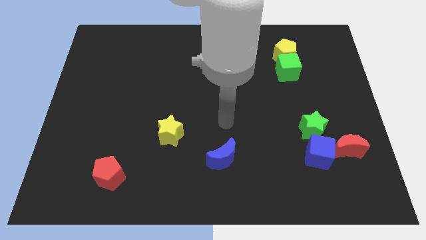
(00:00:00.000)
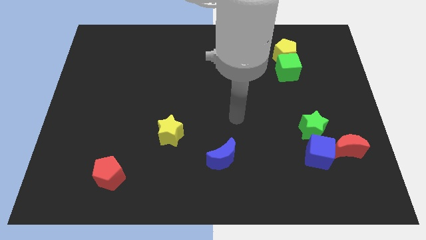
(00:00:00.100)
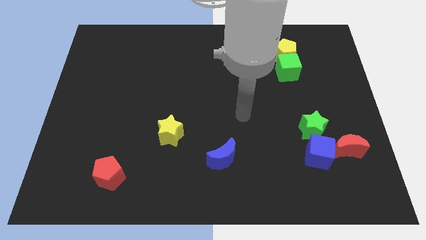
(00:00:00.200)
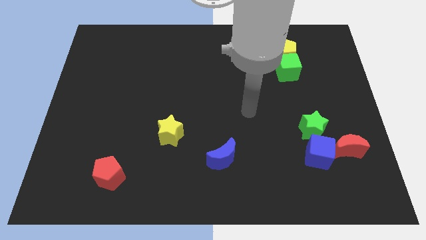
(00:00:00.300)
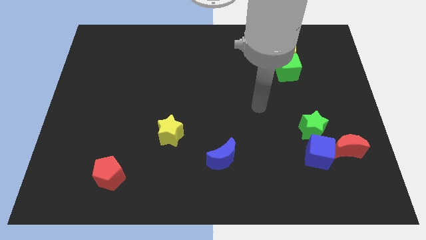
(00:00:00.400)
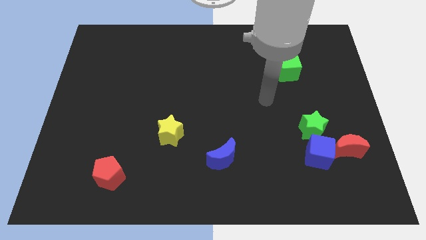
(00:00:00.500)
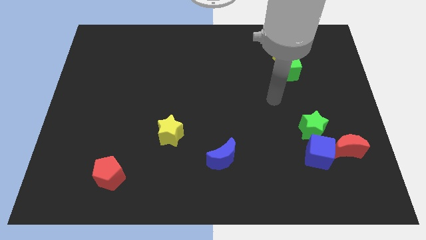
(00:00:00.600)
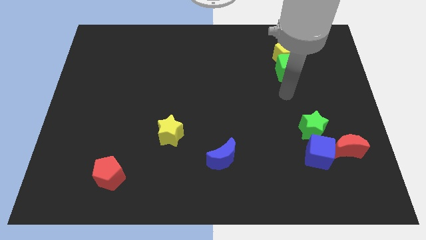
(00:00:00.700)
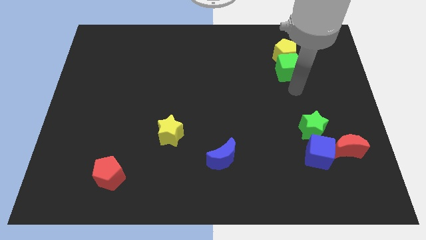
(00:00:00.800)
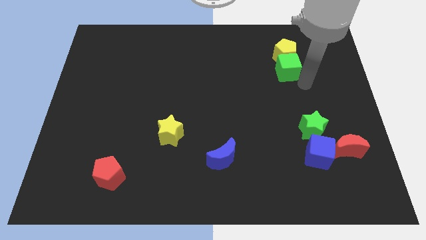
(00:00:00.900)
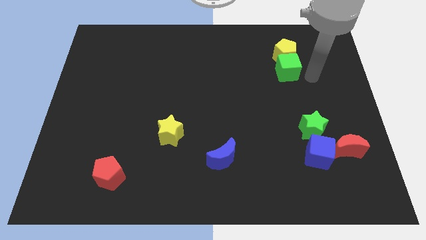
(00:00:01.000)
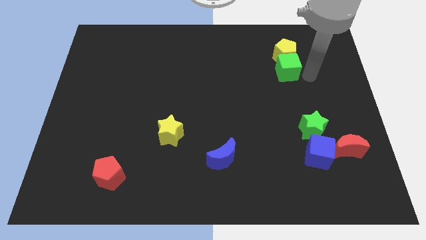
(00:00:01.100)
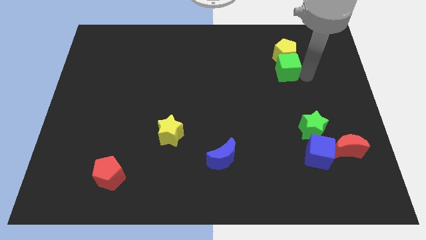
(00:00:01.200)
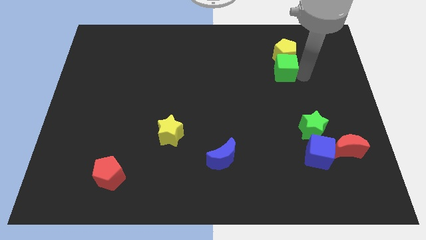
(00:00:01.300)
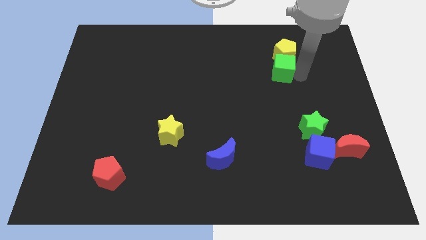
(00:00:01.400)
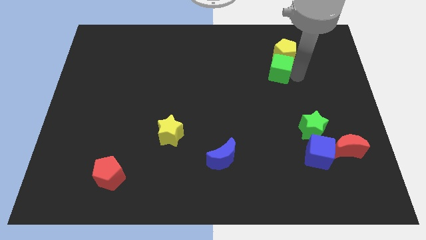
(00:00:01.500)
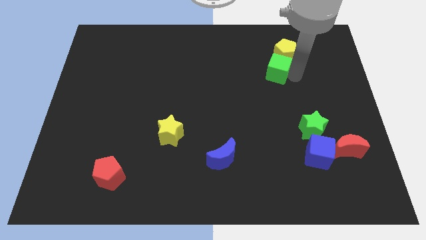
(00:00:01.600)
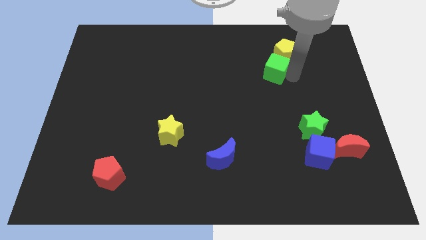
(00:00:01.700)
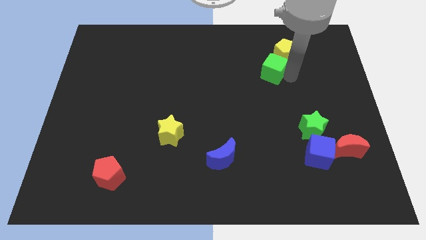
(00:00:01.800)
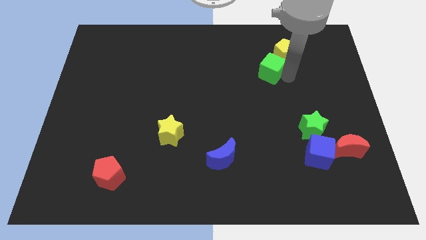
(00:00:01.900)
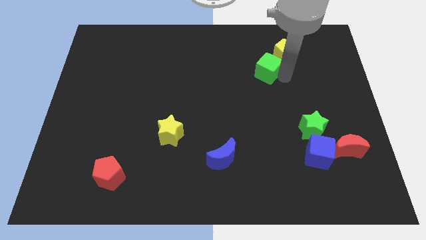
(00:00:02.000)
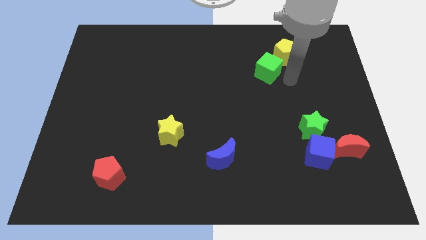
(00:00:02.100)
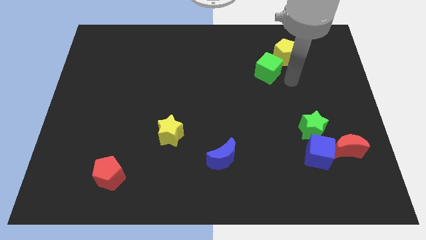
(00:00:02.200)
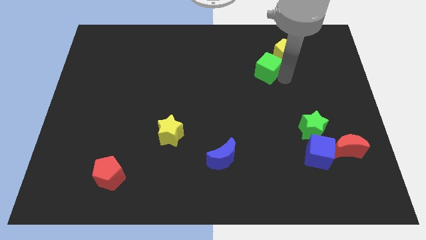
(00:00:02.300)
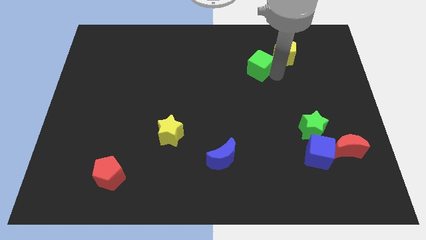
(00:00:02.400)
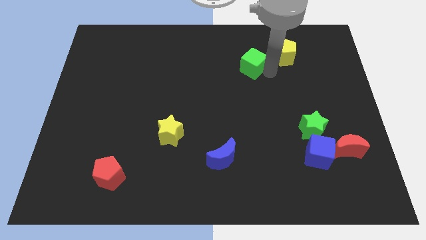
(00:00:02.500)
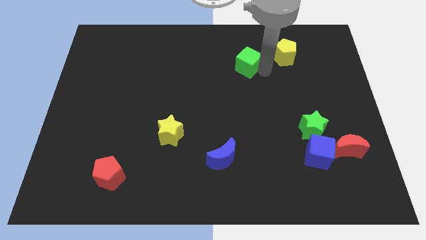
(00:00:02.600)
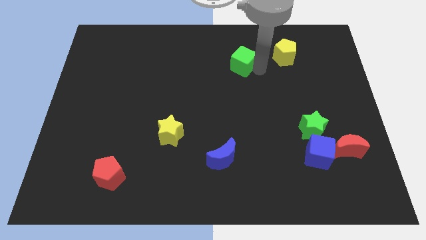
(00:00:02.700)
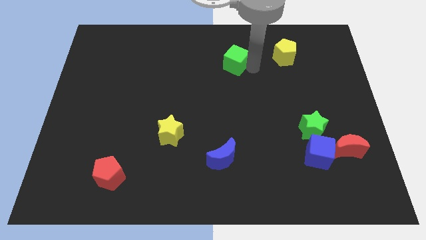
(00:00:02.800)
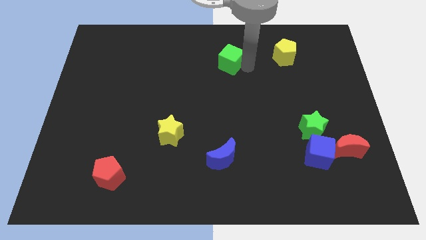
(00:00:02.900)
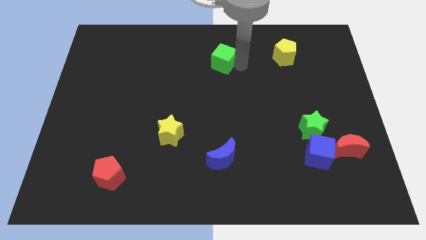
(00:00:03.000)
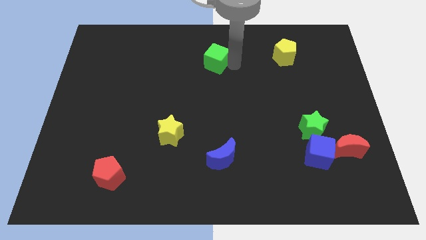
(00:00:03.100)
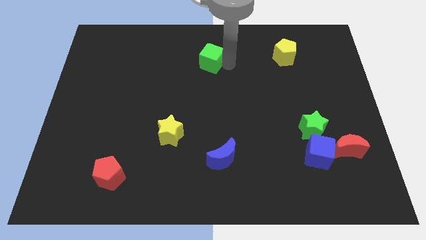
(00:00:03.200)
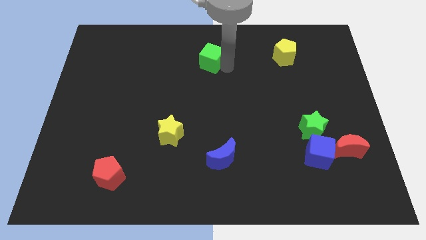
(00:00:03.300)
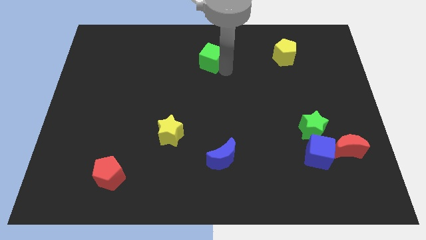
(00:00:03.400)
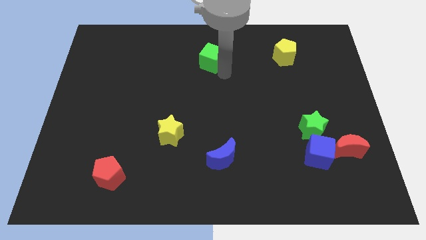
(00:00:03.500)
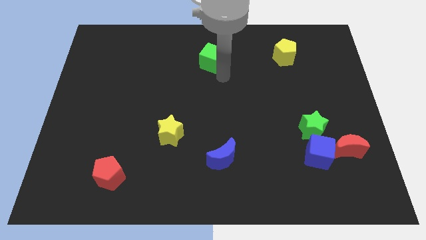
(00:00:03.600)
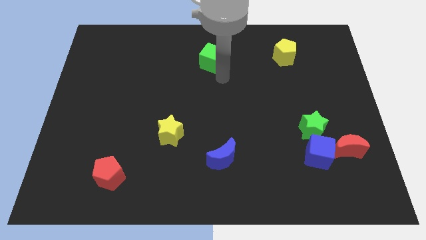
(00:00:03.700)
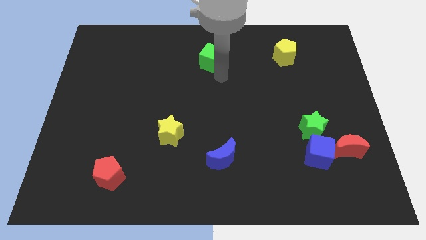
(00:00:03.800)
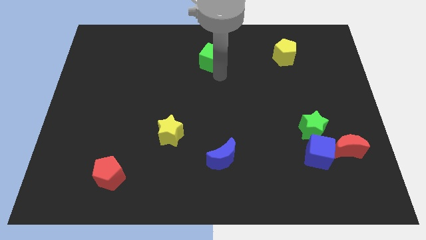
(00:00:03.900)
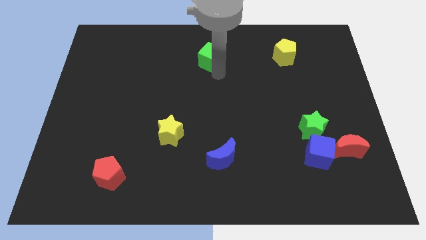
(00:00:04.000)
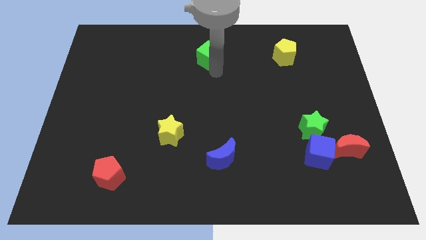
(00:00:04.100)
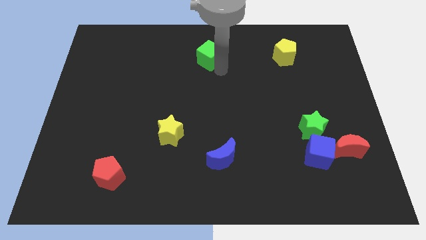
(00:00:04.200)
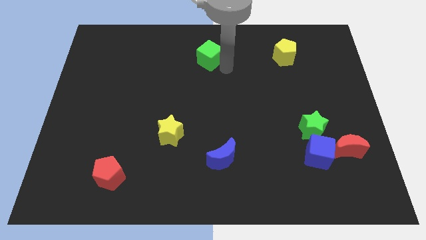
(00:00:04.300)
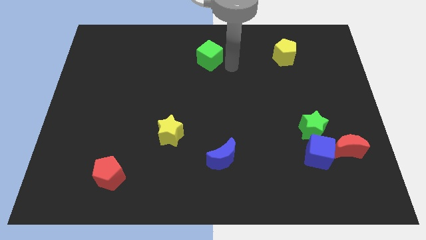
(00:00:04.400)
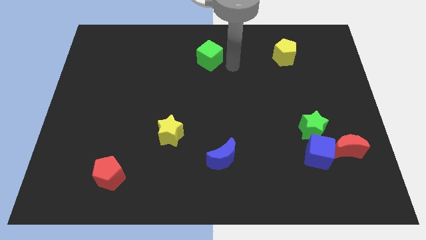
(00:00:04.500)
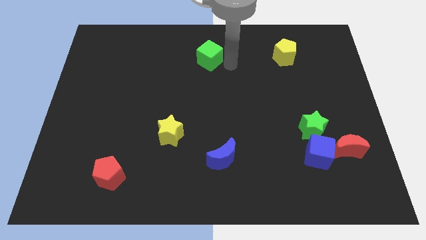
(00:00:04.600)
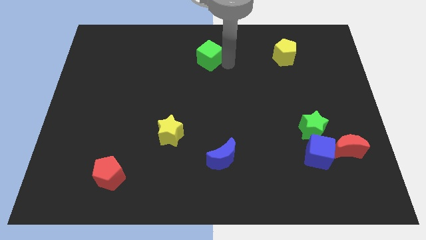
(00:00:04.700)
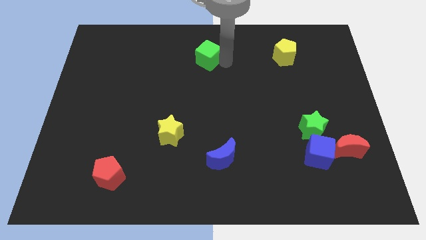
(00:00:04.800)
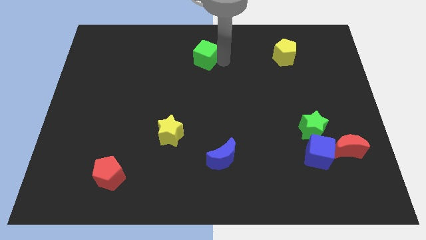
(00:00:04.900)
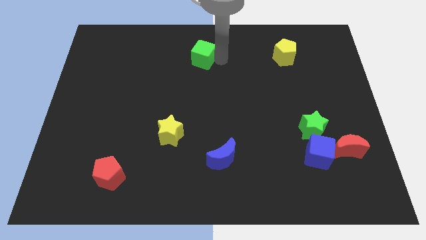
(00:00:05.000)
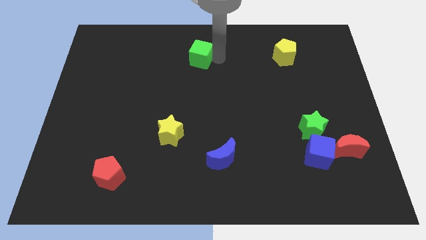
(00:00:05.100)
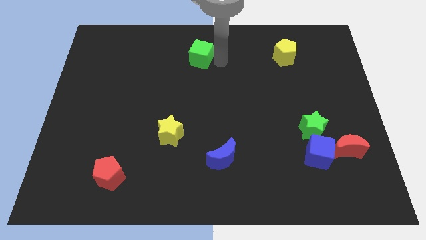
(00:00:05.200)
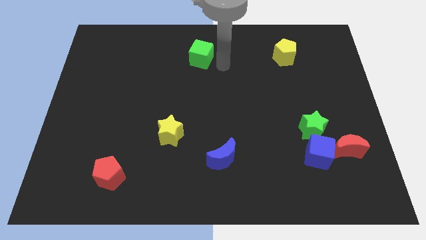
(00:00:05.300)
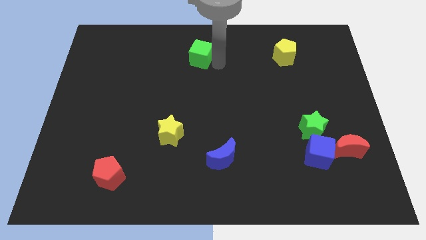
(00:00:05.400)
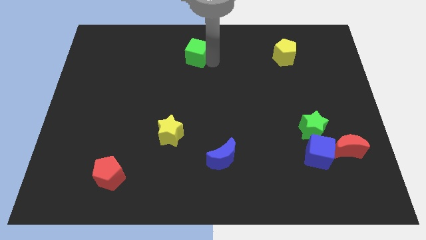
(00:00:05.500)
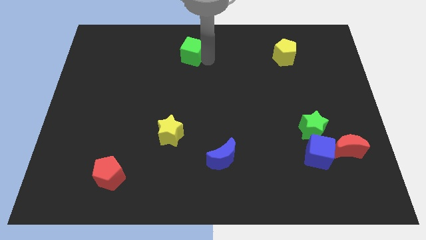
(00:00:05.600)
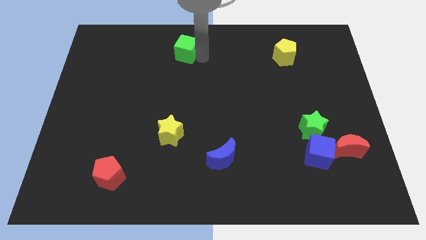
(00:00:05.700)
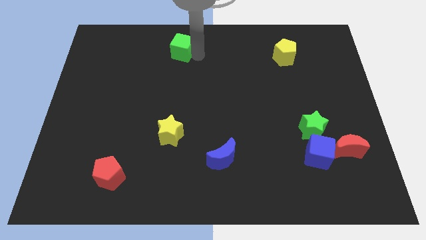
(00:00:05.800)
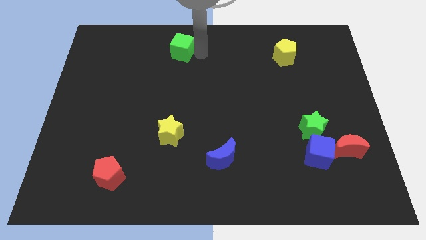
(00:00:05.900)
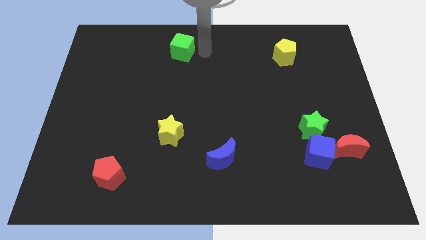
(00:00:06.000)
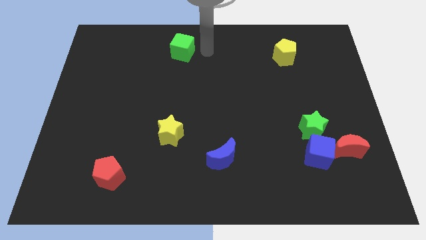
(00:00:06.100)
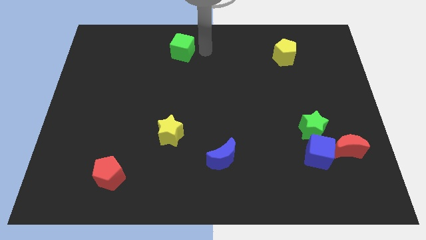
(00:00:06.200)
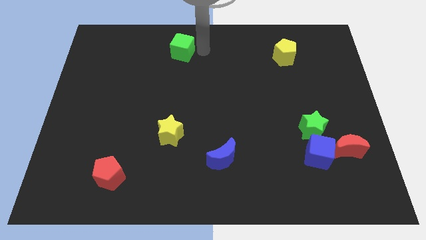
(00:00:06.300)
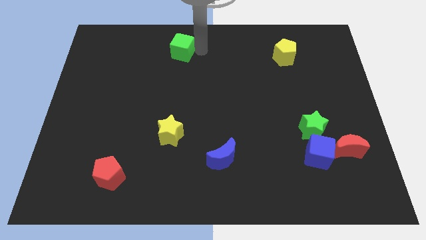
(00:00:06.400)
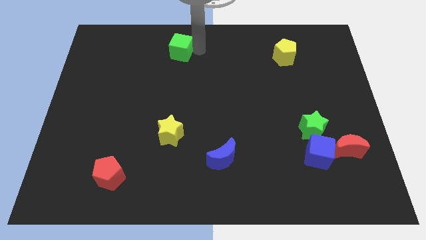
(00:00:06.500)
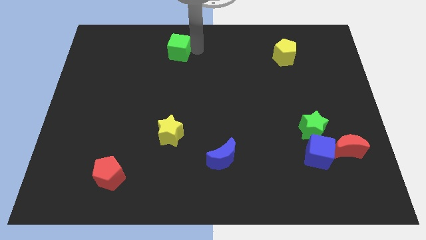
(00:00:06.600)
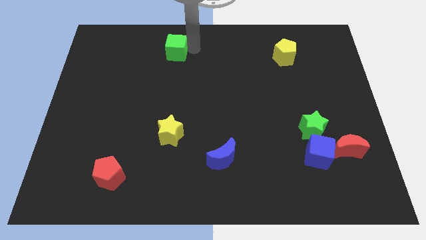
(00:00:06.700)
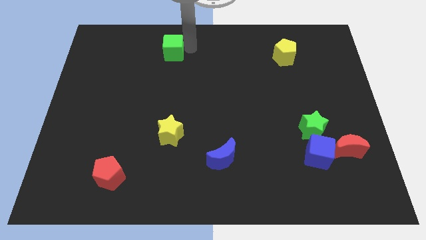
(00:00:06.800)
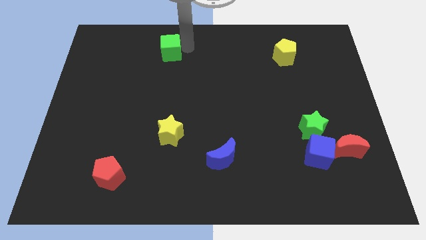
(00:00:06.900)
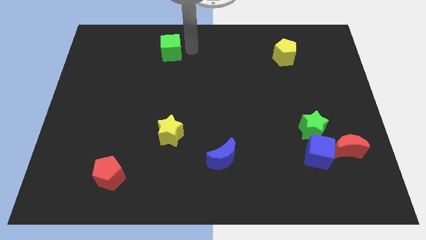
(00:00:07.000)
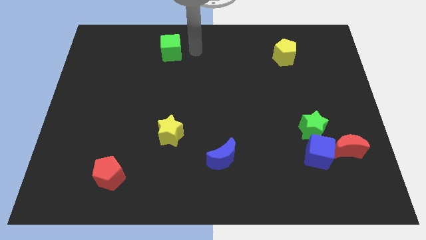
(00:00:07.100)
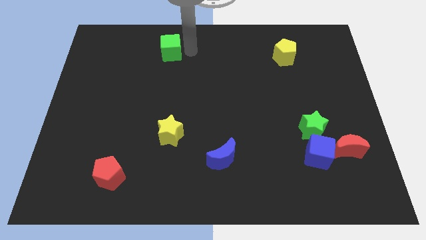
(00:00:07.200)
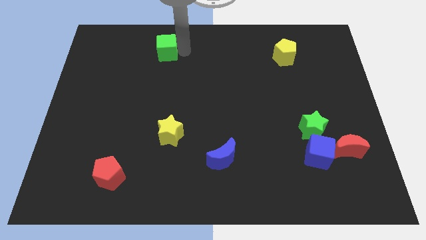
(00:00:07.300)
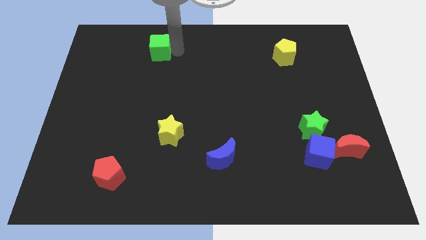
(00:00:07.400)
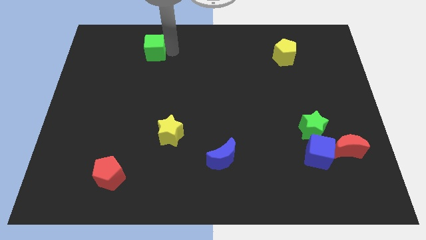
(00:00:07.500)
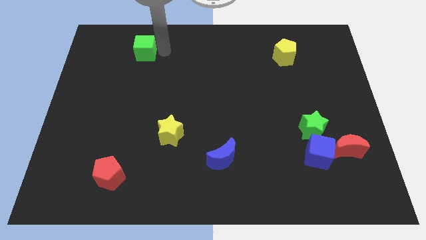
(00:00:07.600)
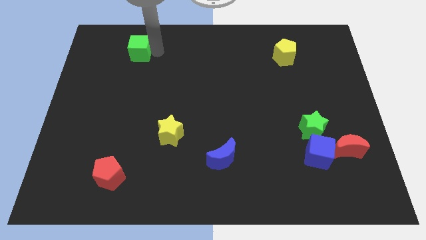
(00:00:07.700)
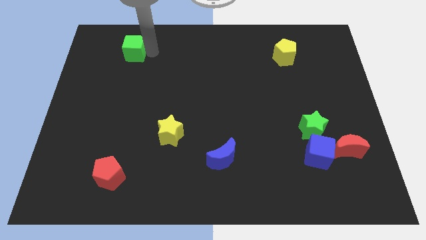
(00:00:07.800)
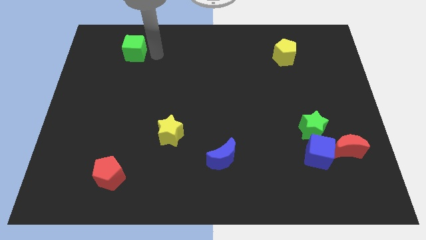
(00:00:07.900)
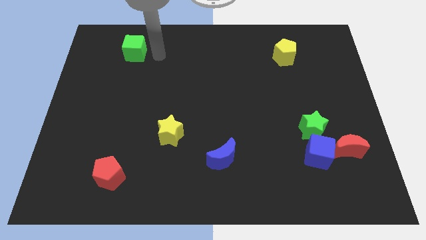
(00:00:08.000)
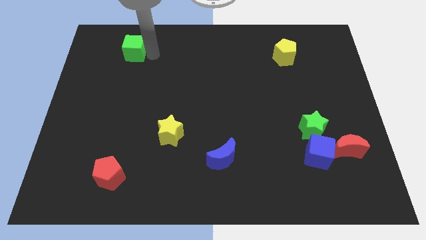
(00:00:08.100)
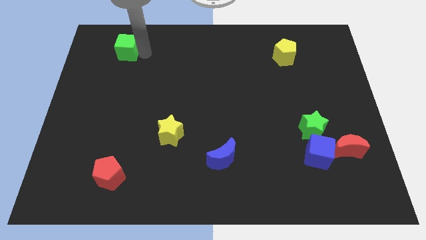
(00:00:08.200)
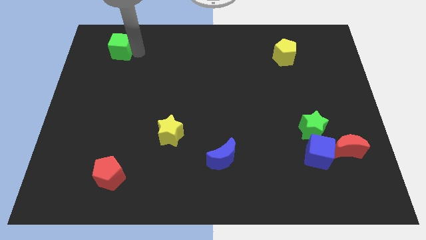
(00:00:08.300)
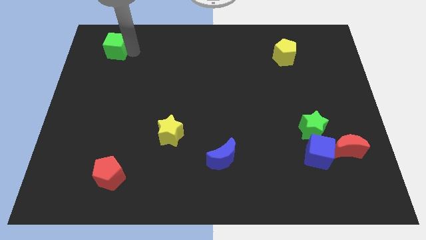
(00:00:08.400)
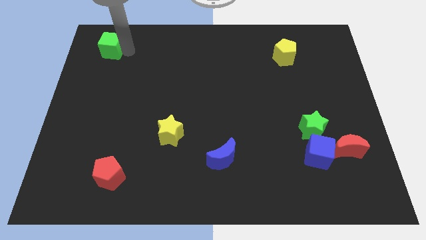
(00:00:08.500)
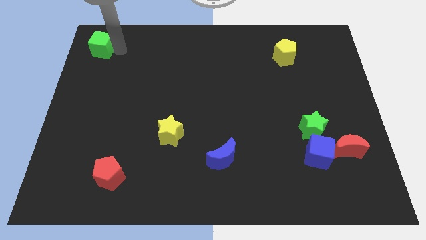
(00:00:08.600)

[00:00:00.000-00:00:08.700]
move the green cube to the top left of the board
